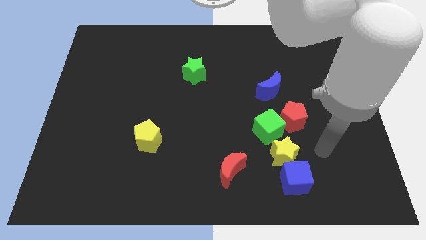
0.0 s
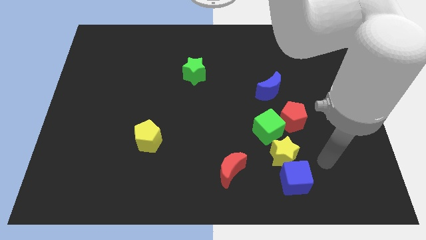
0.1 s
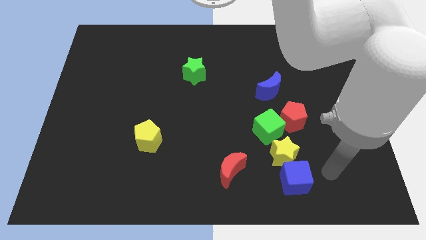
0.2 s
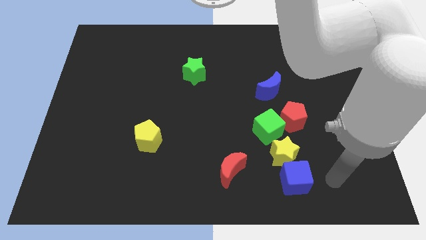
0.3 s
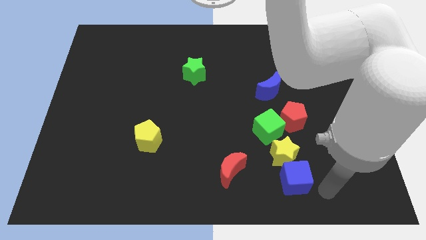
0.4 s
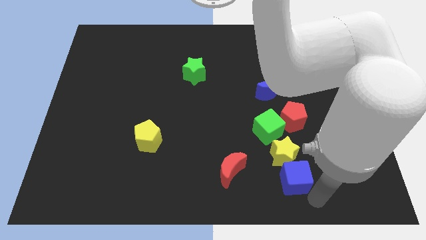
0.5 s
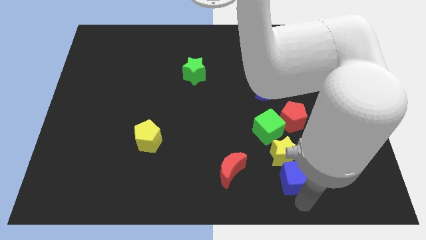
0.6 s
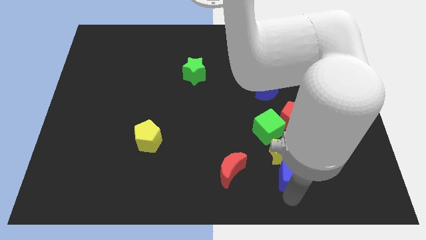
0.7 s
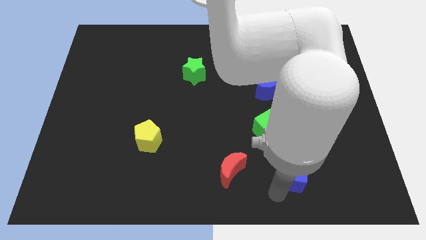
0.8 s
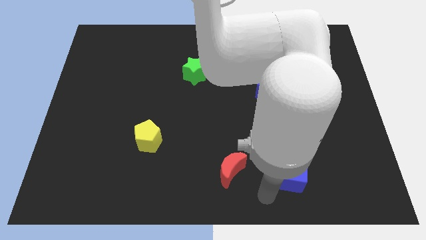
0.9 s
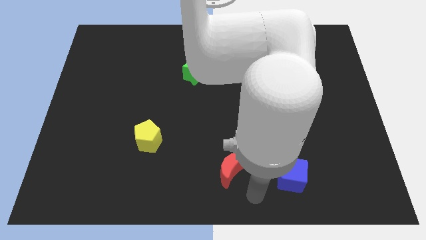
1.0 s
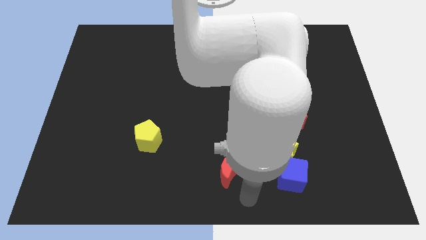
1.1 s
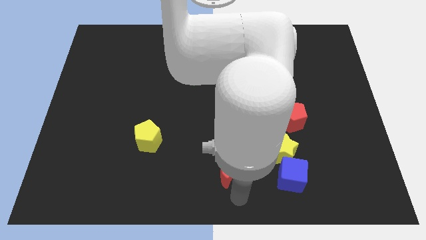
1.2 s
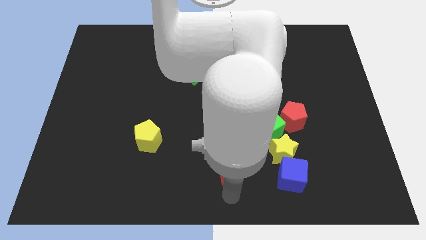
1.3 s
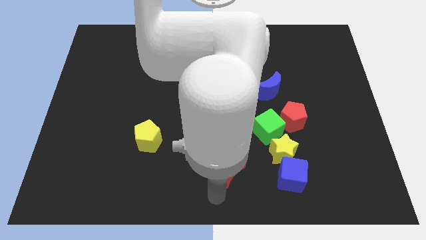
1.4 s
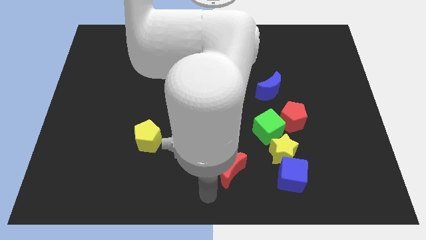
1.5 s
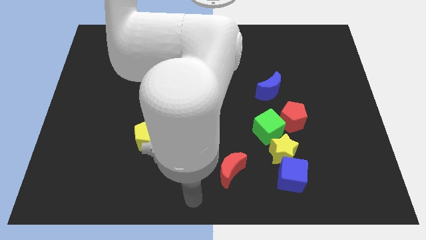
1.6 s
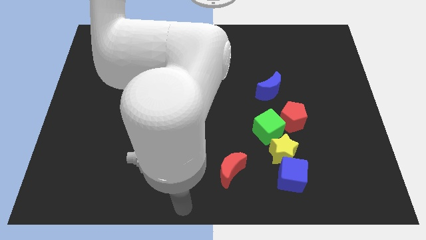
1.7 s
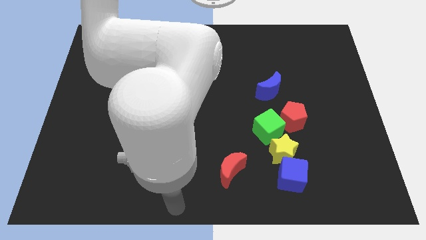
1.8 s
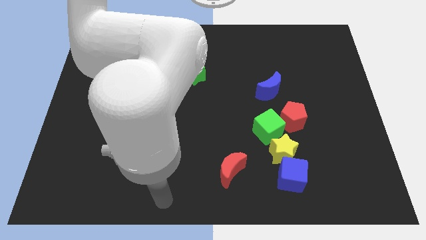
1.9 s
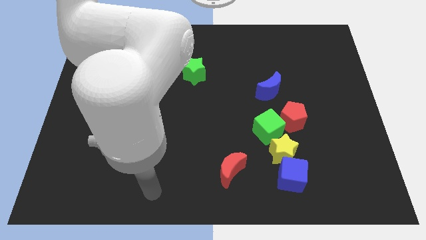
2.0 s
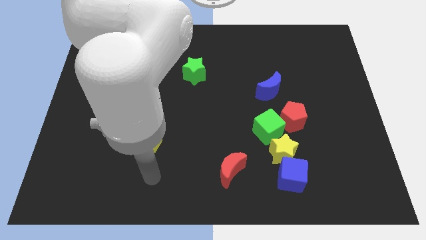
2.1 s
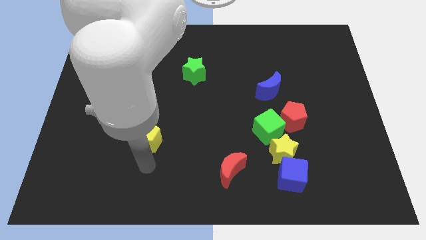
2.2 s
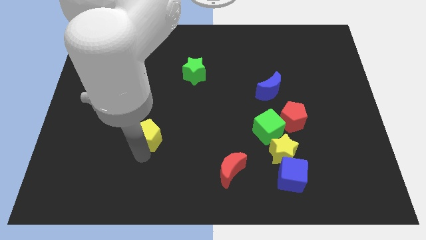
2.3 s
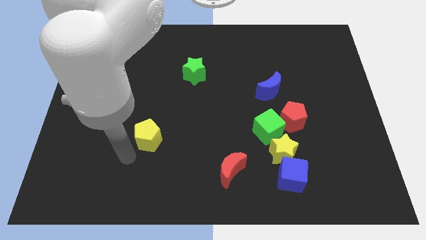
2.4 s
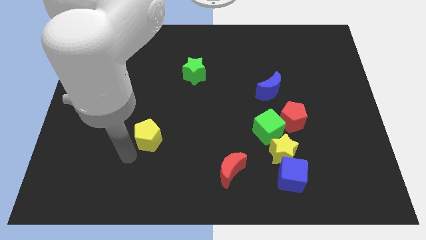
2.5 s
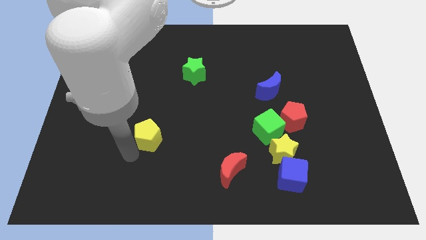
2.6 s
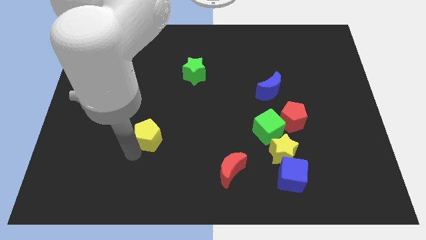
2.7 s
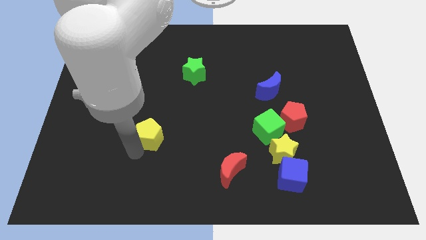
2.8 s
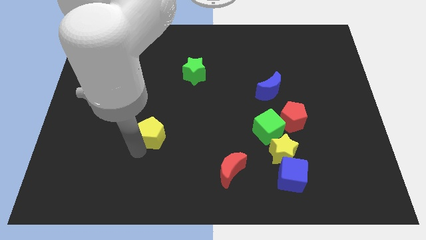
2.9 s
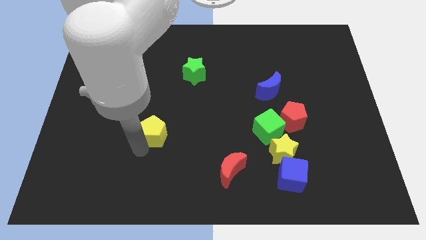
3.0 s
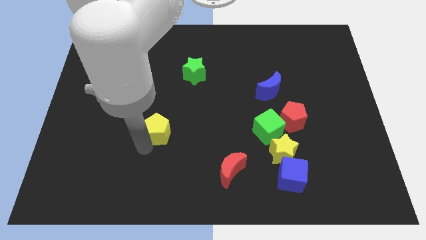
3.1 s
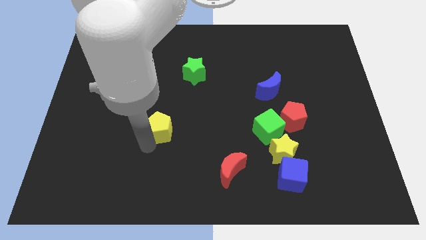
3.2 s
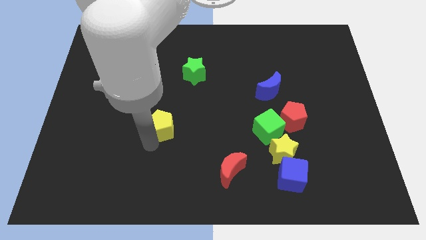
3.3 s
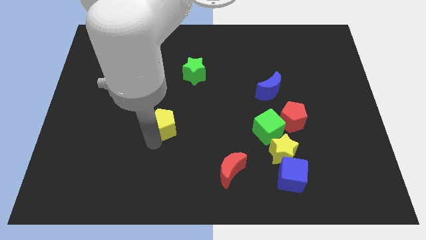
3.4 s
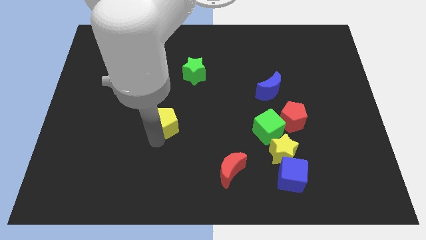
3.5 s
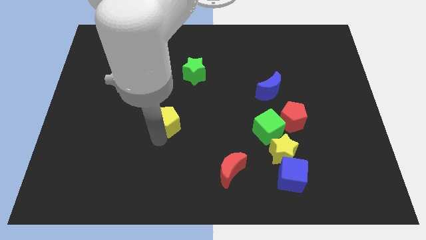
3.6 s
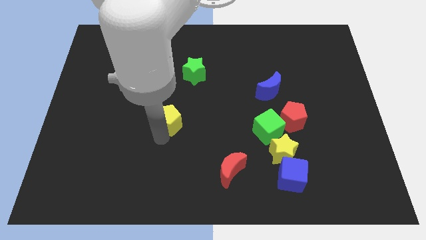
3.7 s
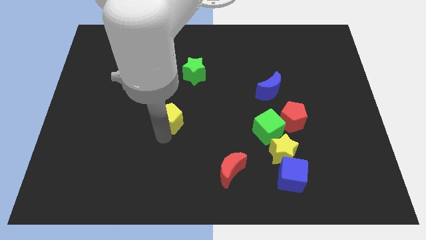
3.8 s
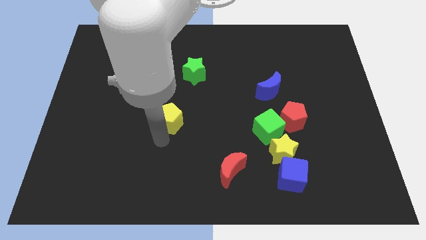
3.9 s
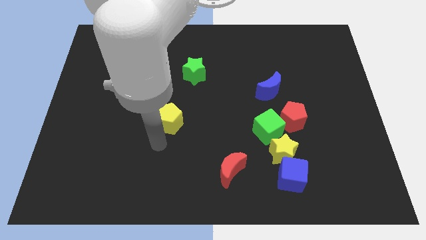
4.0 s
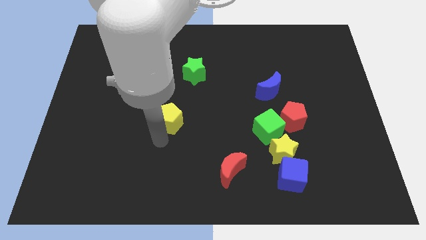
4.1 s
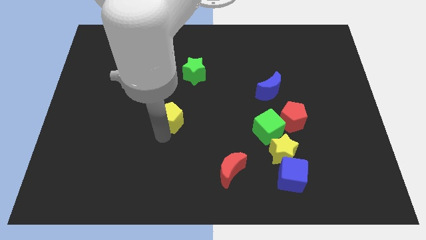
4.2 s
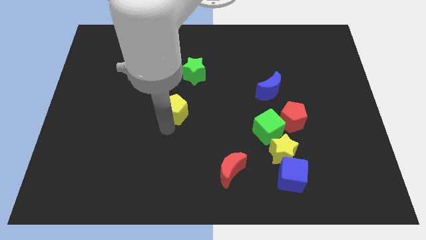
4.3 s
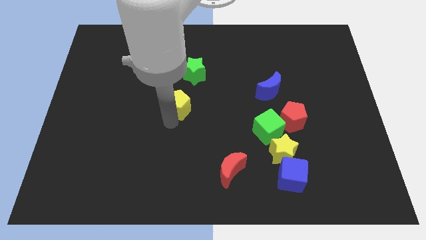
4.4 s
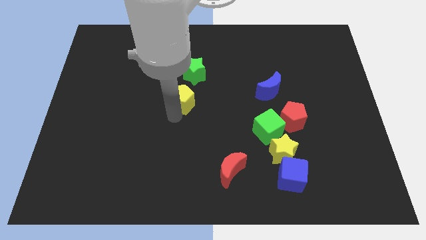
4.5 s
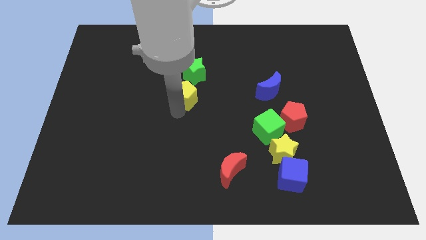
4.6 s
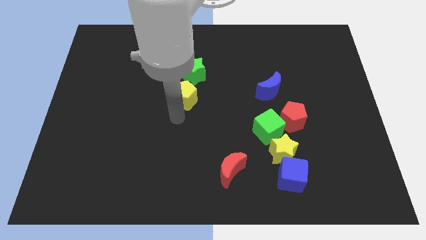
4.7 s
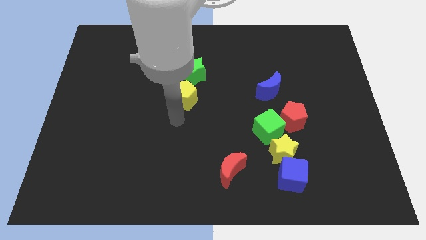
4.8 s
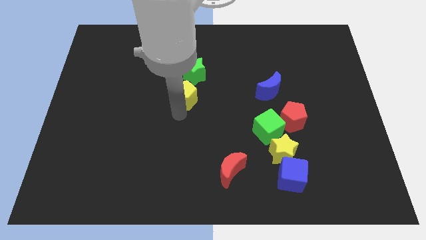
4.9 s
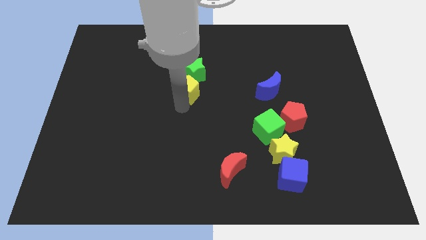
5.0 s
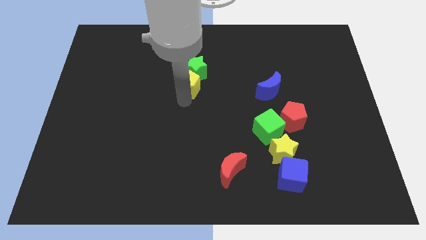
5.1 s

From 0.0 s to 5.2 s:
push the yellow pentagon towards the green star
